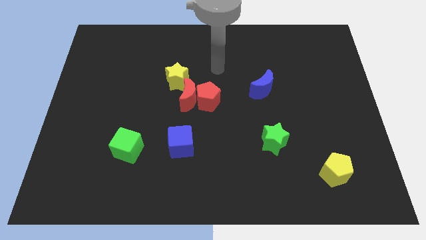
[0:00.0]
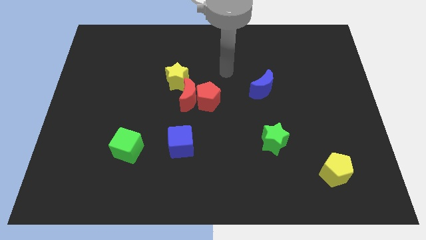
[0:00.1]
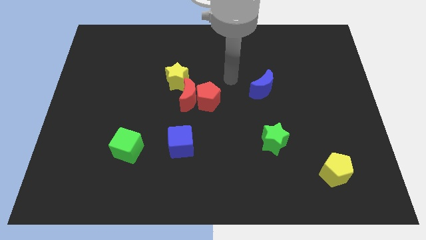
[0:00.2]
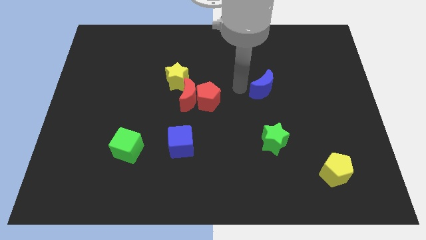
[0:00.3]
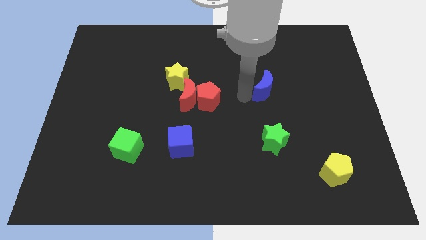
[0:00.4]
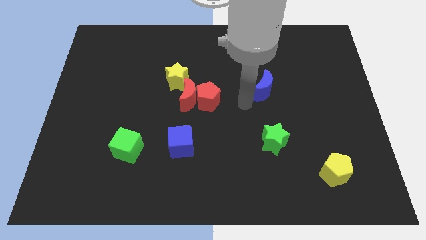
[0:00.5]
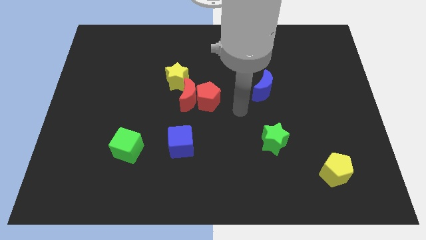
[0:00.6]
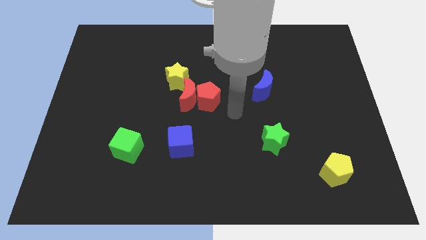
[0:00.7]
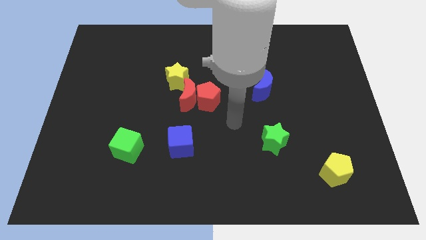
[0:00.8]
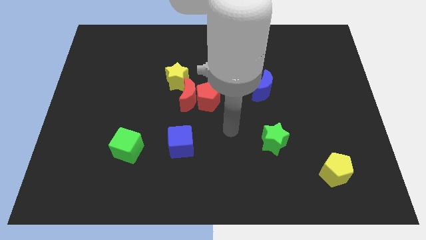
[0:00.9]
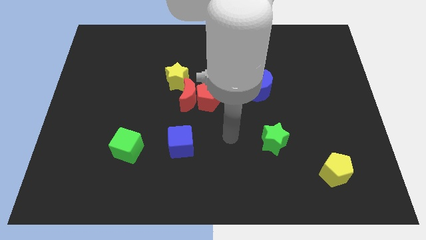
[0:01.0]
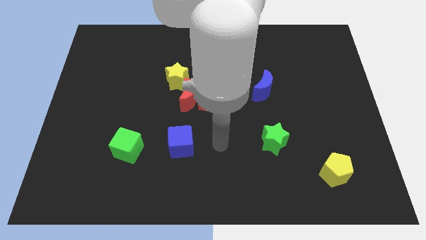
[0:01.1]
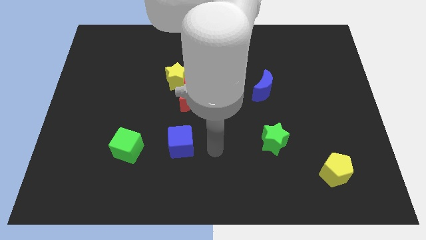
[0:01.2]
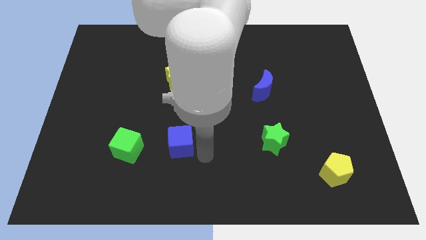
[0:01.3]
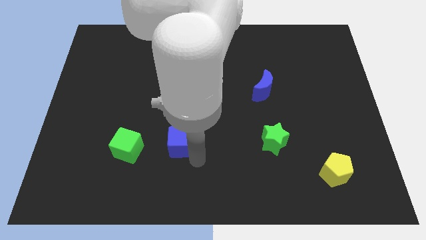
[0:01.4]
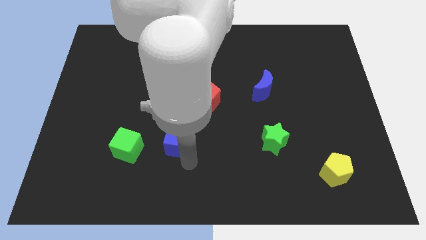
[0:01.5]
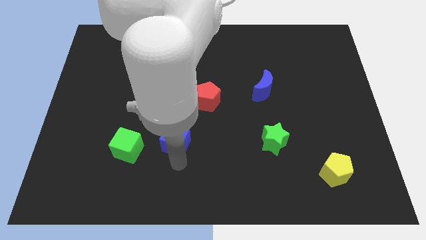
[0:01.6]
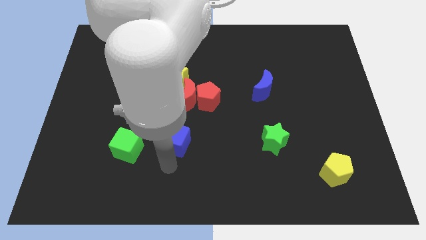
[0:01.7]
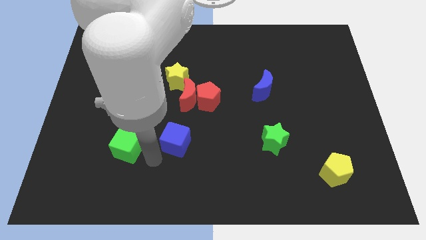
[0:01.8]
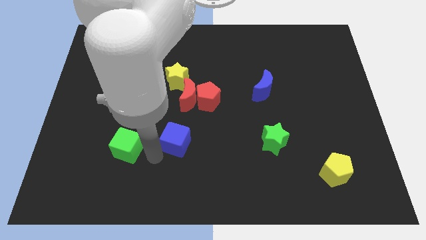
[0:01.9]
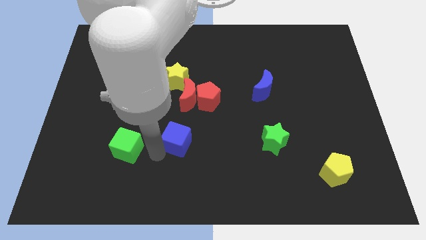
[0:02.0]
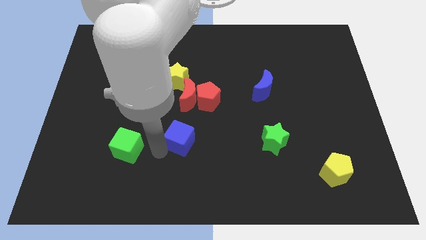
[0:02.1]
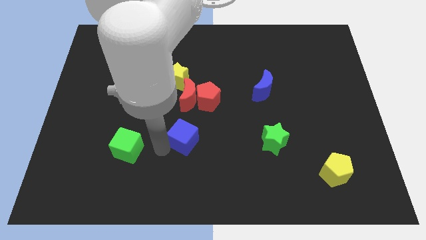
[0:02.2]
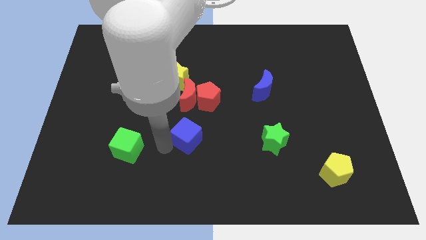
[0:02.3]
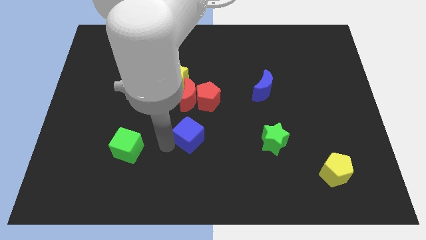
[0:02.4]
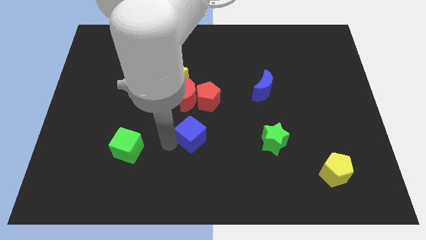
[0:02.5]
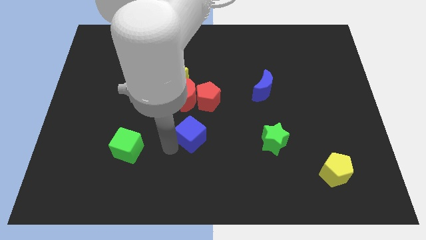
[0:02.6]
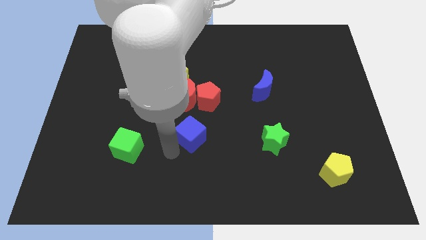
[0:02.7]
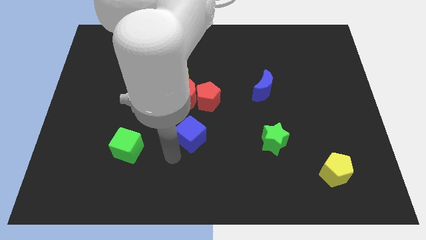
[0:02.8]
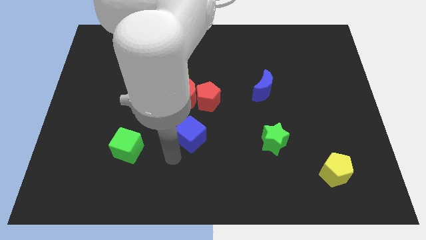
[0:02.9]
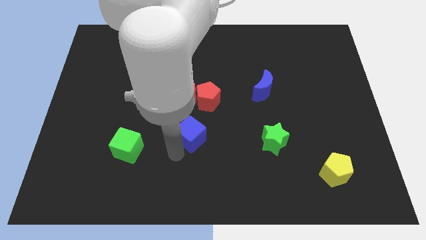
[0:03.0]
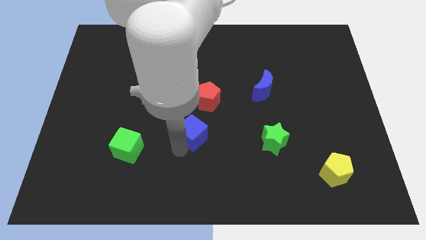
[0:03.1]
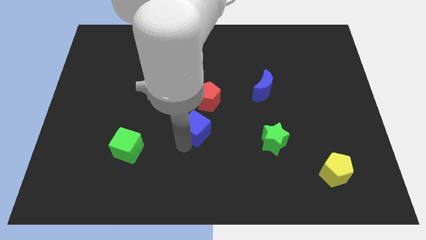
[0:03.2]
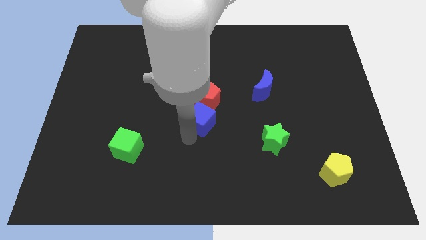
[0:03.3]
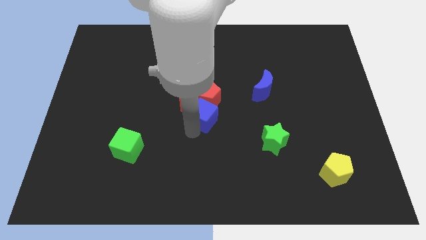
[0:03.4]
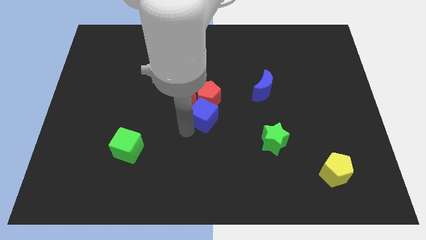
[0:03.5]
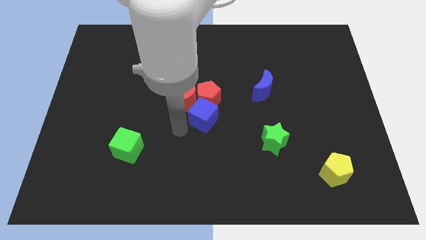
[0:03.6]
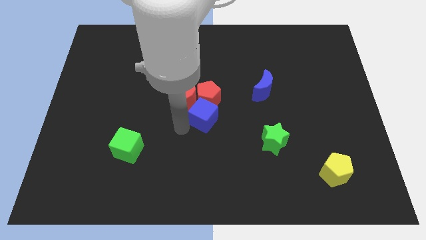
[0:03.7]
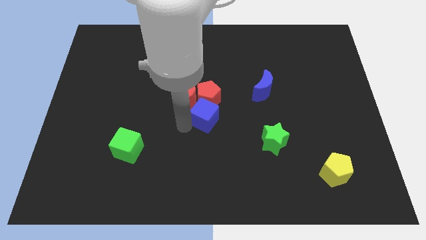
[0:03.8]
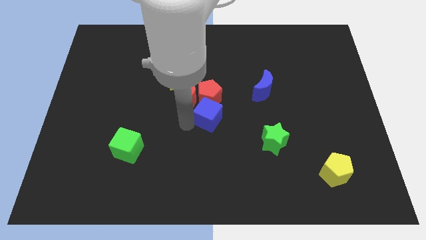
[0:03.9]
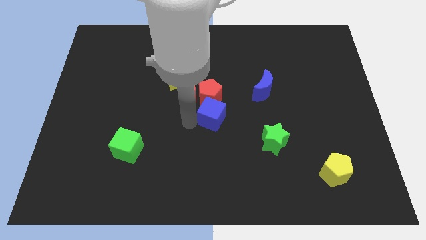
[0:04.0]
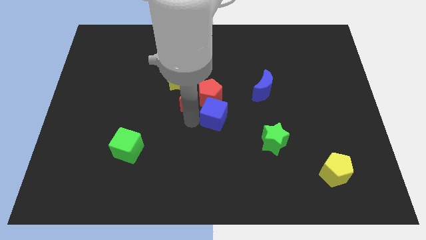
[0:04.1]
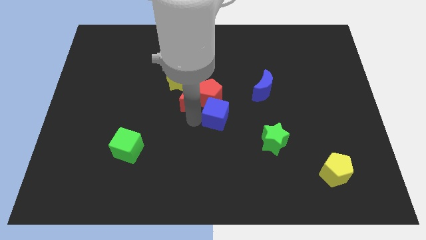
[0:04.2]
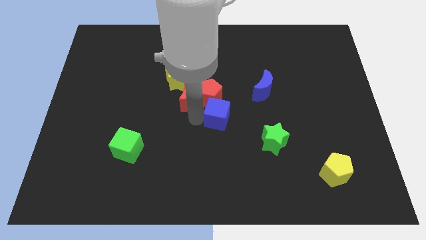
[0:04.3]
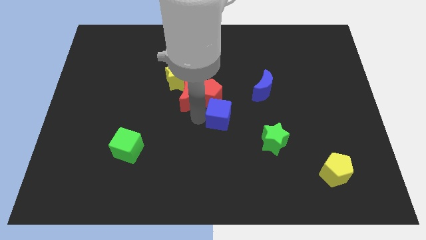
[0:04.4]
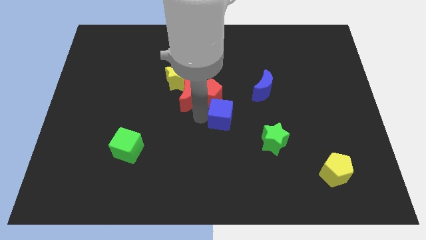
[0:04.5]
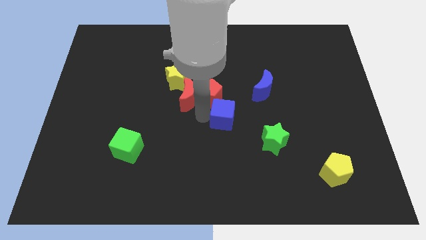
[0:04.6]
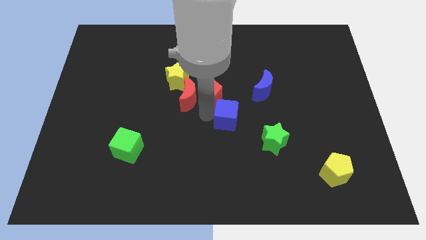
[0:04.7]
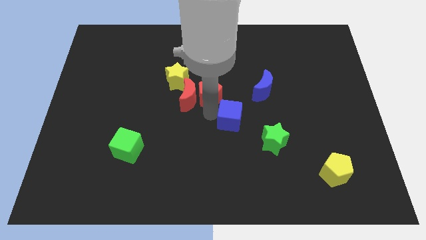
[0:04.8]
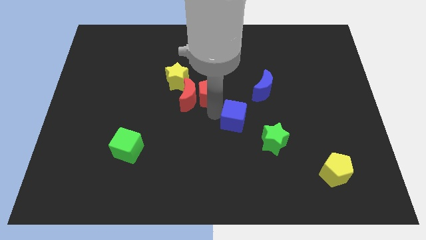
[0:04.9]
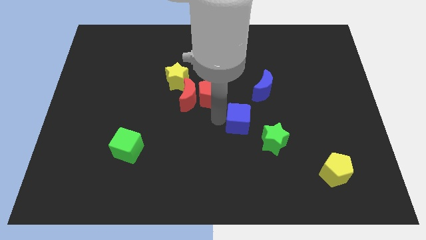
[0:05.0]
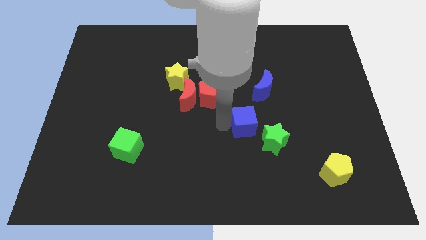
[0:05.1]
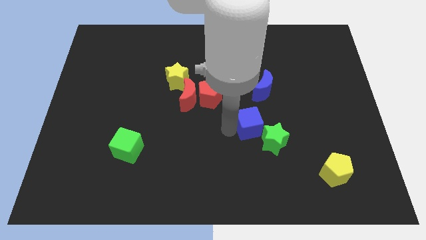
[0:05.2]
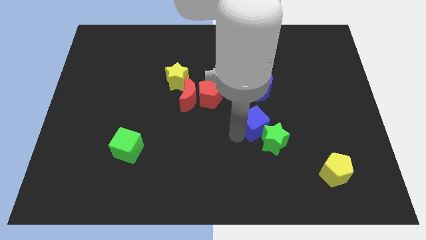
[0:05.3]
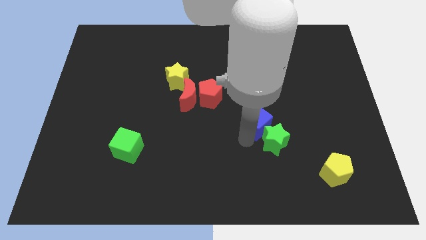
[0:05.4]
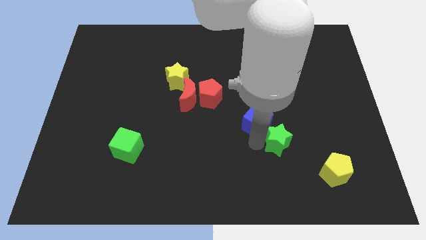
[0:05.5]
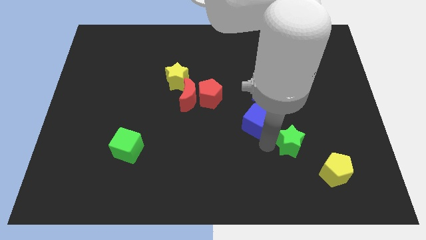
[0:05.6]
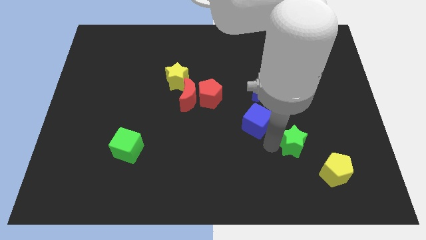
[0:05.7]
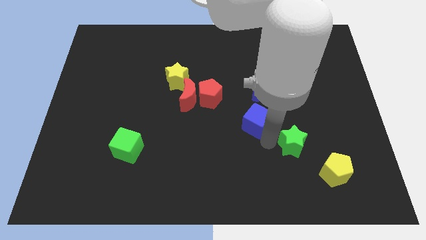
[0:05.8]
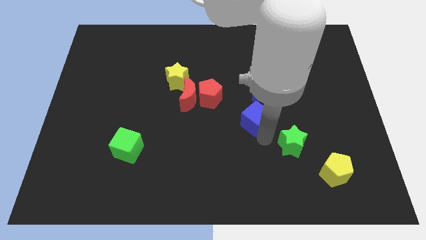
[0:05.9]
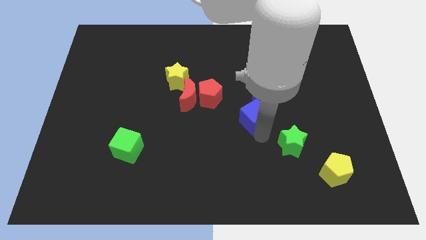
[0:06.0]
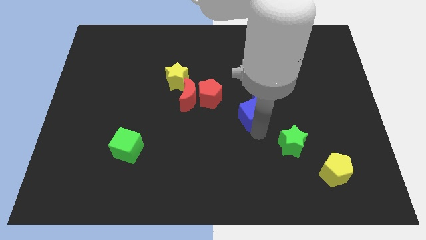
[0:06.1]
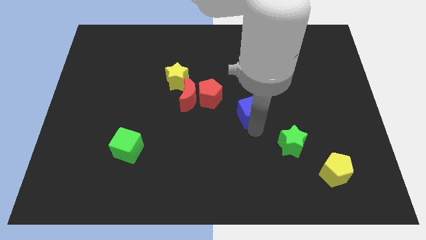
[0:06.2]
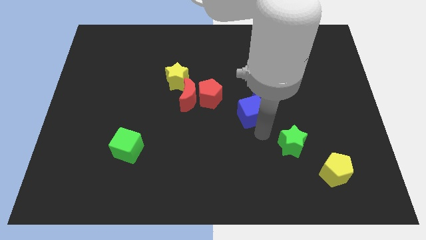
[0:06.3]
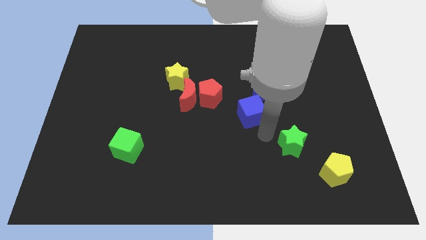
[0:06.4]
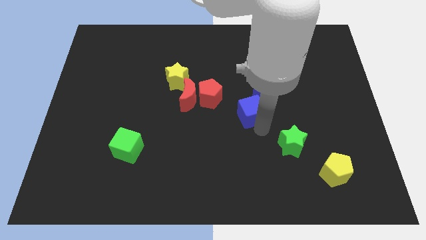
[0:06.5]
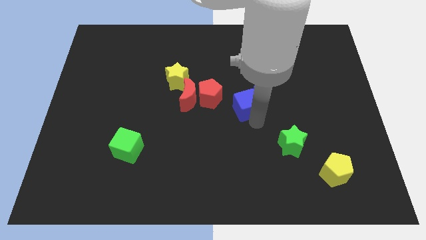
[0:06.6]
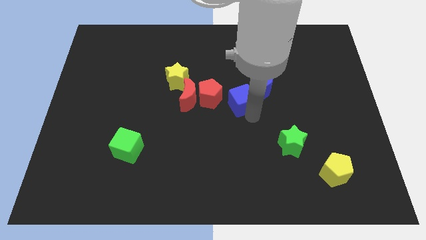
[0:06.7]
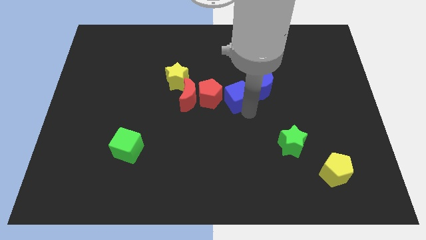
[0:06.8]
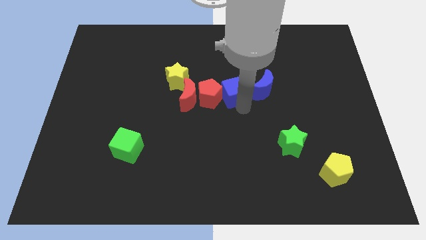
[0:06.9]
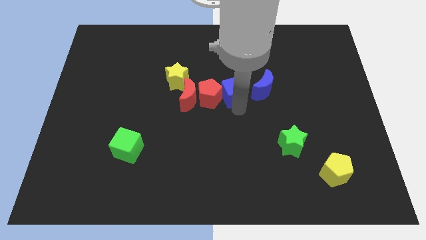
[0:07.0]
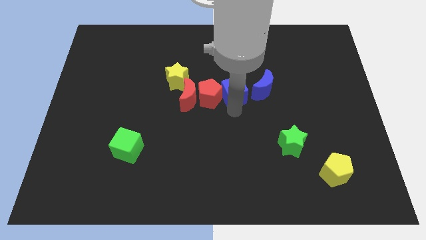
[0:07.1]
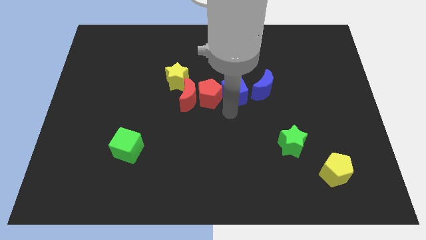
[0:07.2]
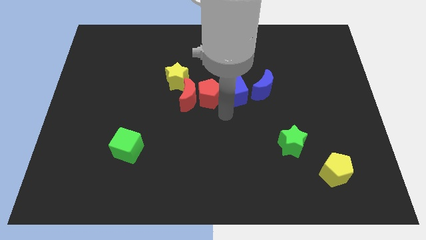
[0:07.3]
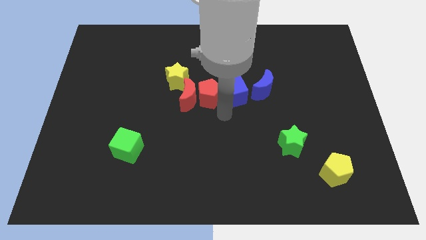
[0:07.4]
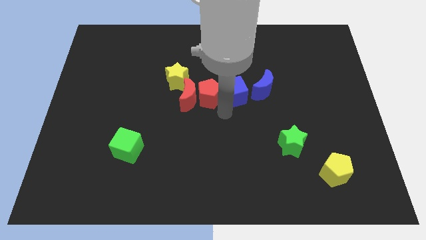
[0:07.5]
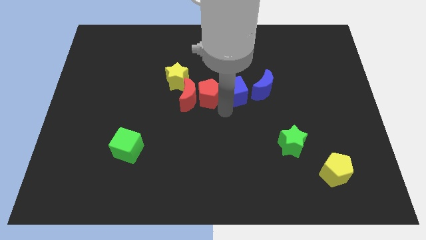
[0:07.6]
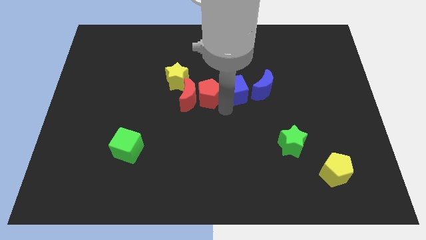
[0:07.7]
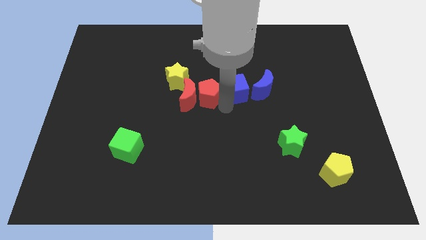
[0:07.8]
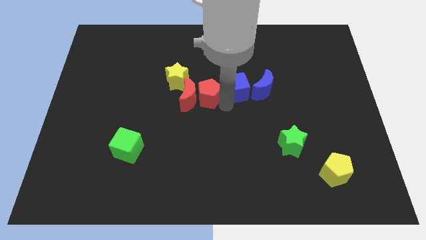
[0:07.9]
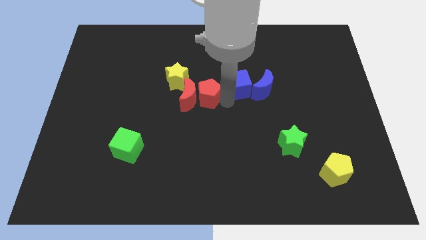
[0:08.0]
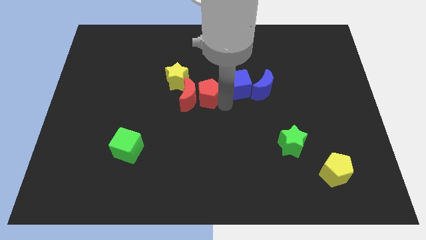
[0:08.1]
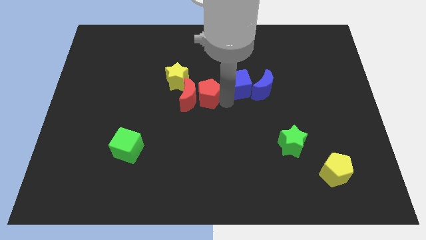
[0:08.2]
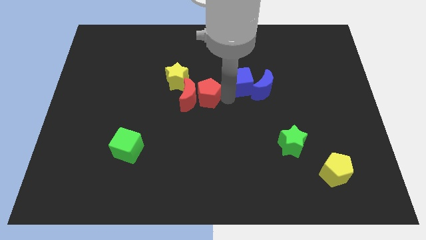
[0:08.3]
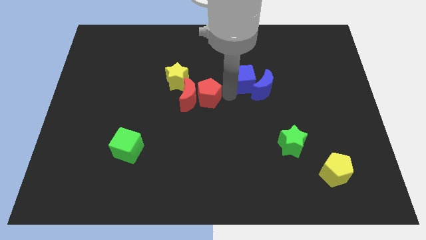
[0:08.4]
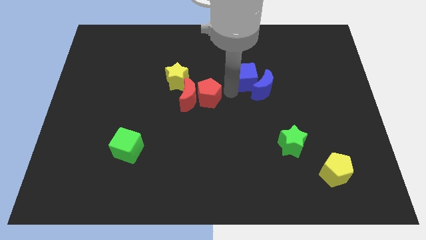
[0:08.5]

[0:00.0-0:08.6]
push the blue cube above the blue moon
